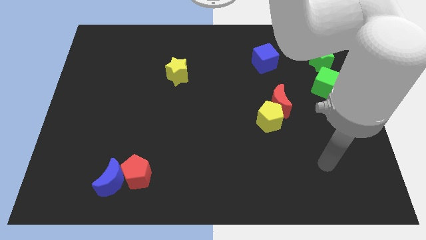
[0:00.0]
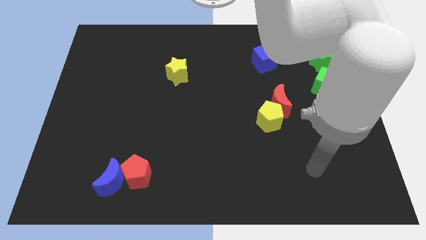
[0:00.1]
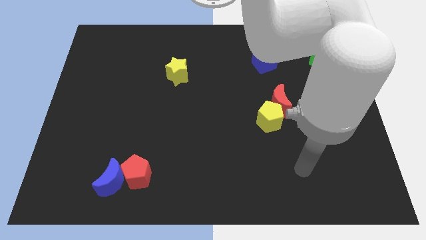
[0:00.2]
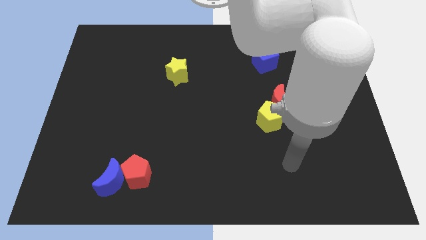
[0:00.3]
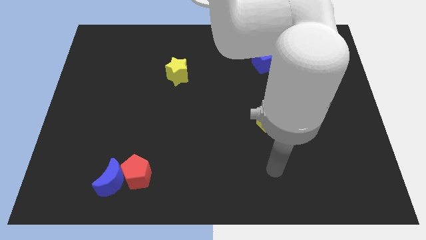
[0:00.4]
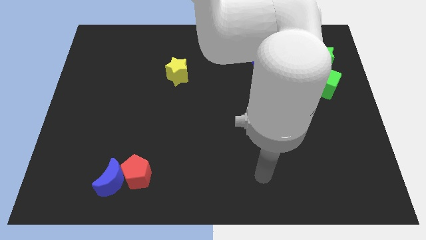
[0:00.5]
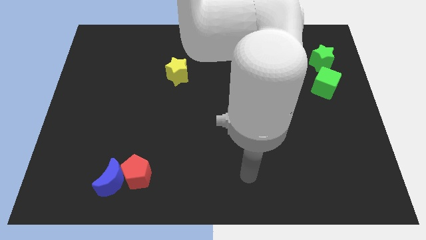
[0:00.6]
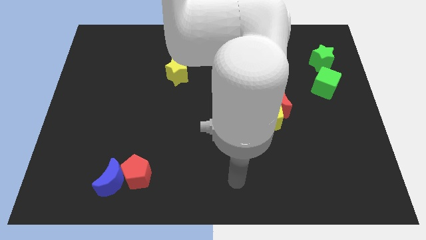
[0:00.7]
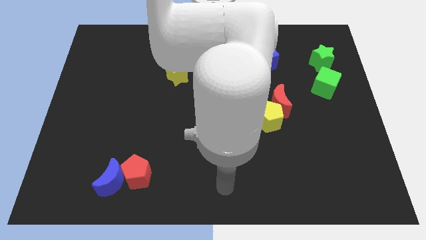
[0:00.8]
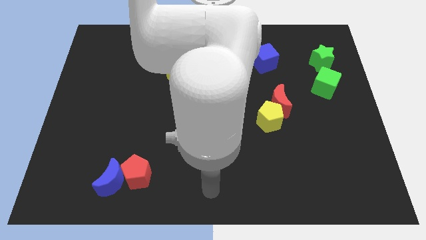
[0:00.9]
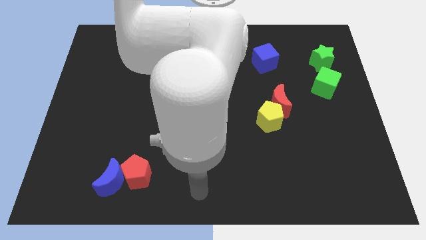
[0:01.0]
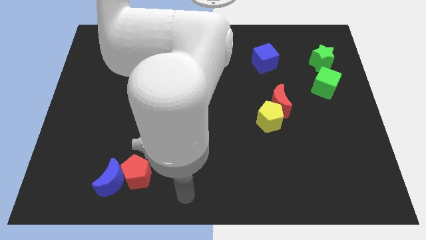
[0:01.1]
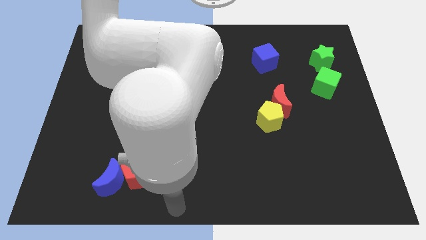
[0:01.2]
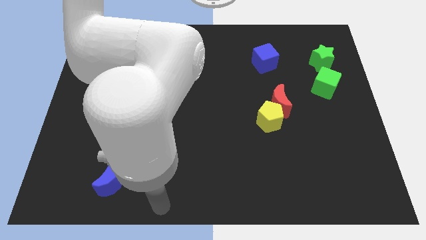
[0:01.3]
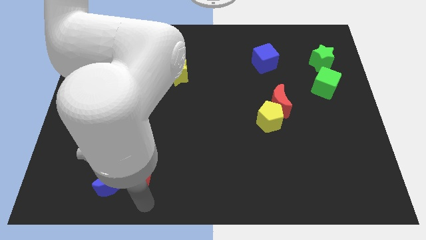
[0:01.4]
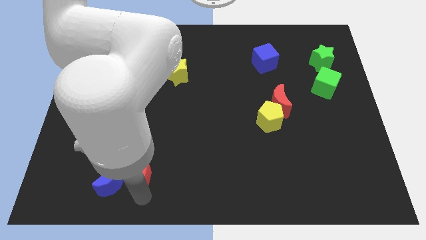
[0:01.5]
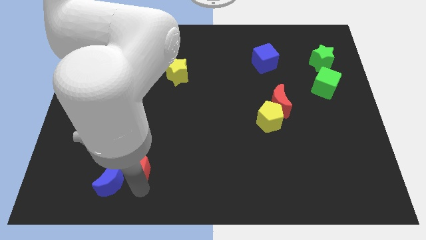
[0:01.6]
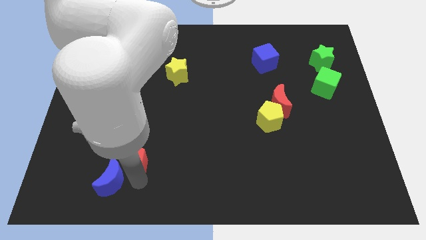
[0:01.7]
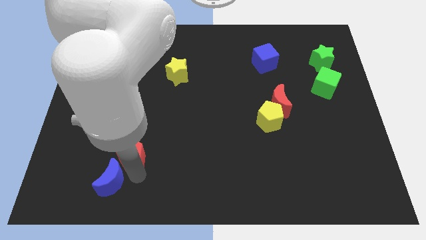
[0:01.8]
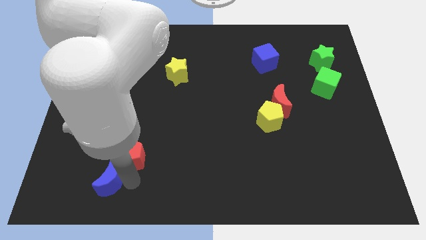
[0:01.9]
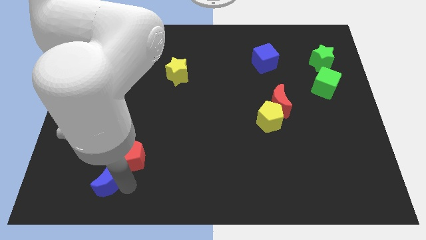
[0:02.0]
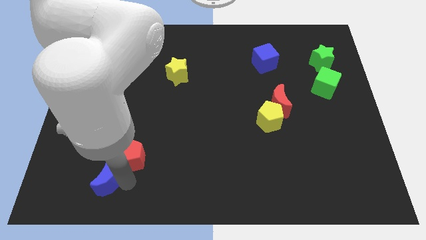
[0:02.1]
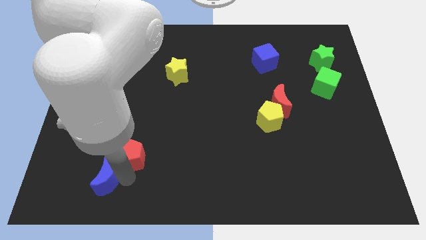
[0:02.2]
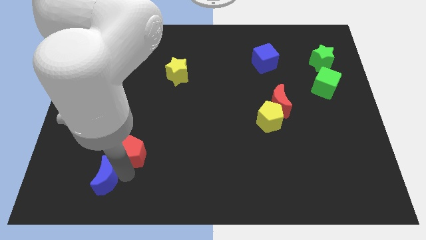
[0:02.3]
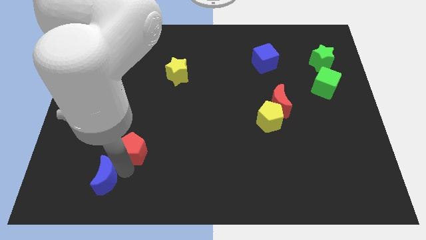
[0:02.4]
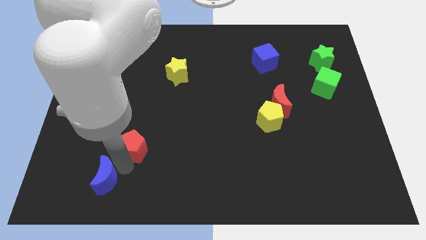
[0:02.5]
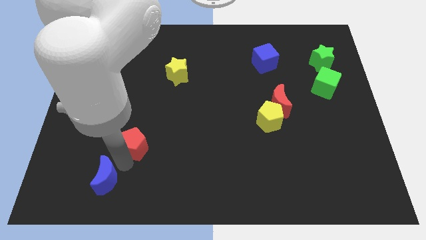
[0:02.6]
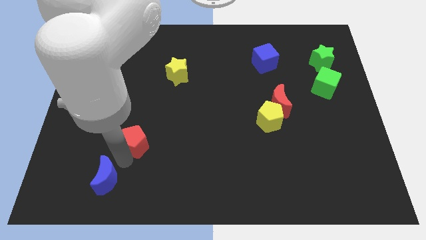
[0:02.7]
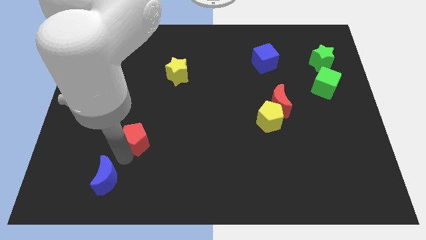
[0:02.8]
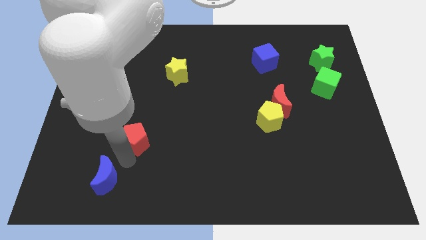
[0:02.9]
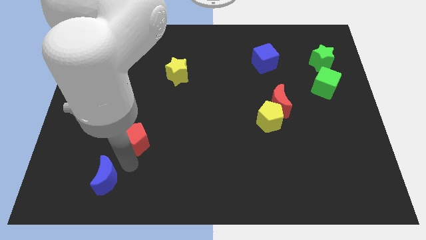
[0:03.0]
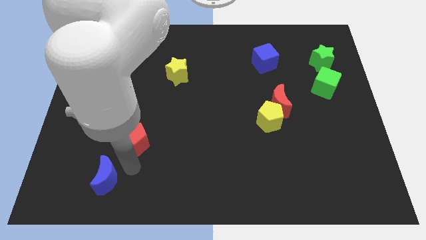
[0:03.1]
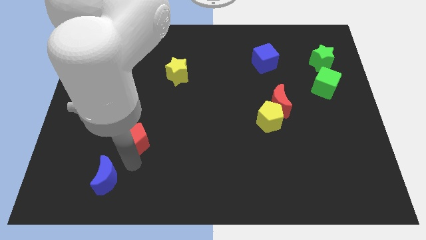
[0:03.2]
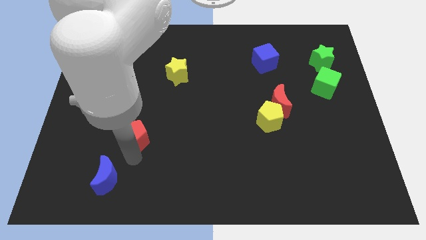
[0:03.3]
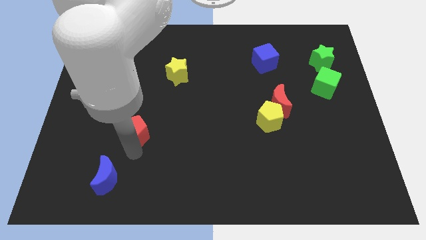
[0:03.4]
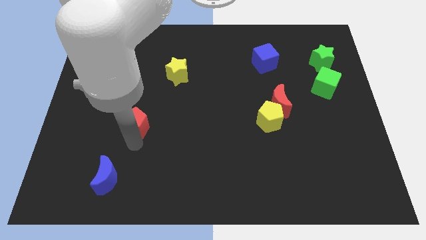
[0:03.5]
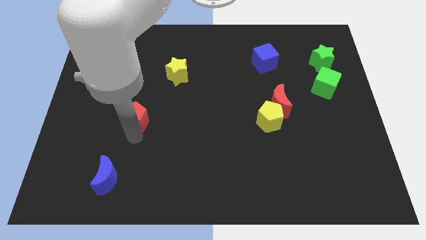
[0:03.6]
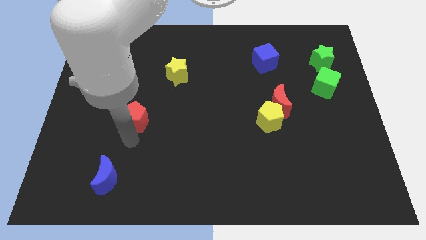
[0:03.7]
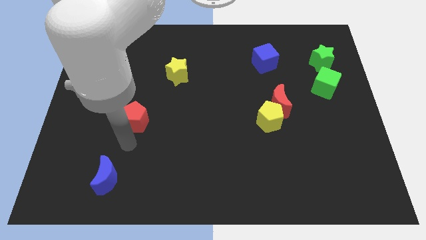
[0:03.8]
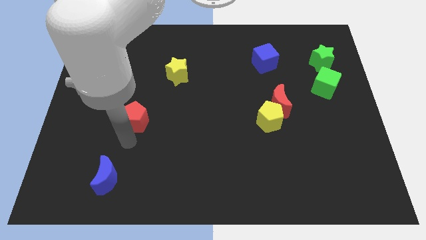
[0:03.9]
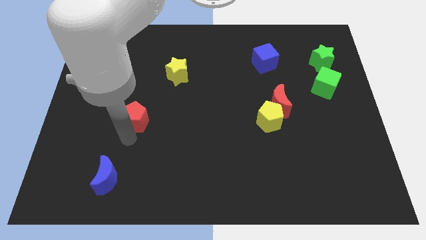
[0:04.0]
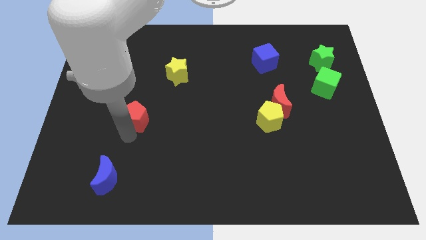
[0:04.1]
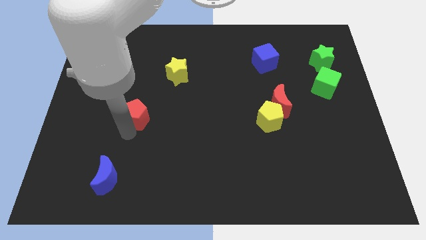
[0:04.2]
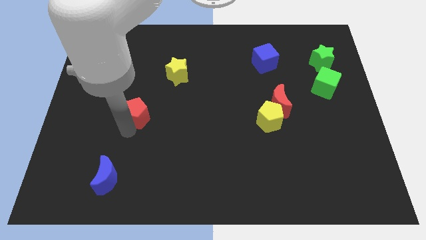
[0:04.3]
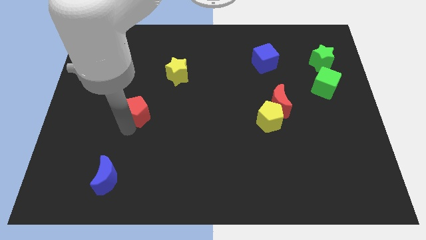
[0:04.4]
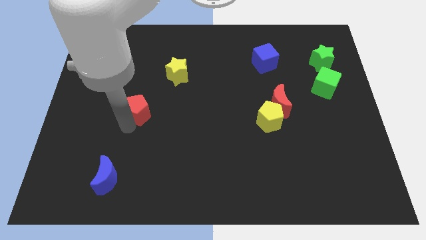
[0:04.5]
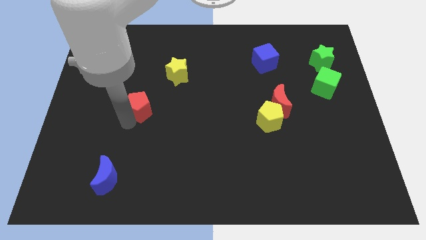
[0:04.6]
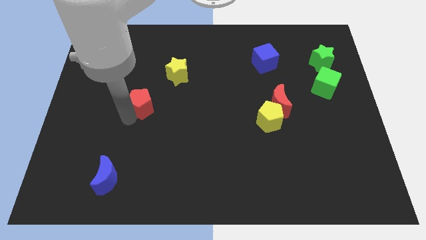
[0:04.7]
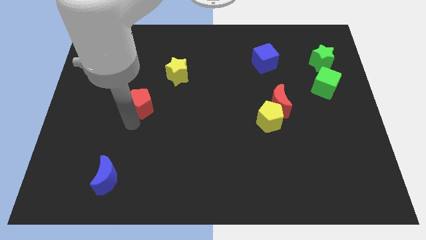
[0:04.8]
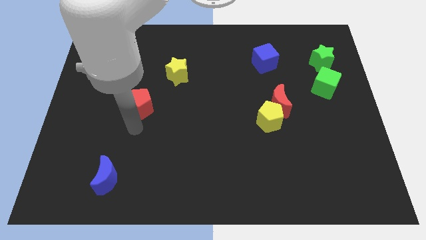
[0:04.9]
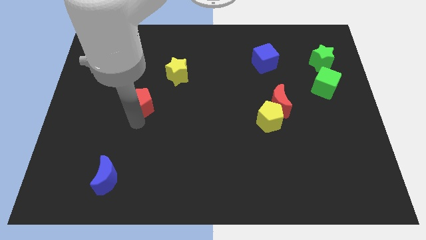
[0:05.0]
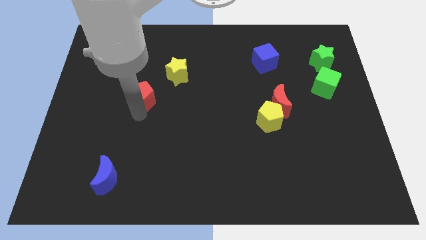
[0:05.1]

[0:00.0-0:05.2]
push the red pentagon upwards

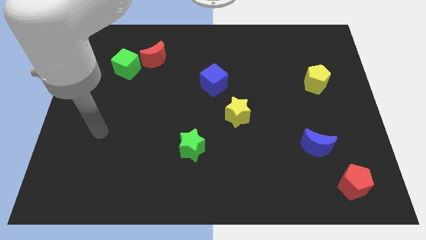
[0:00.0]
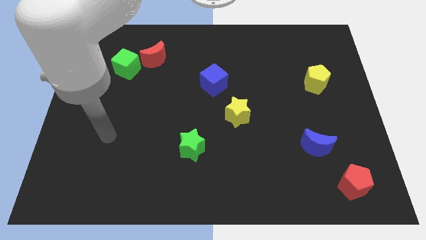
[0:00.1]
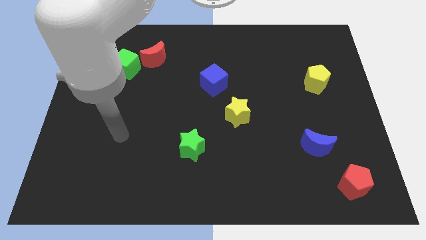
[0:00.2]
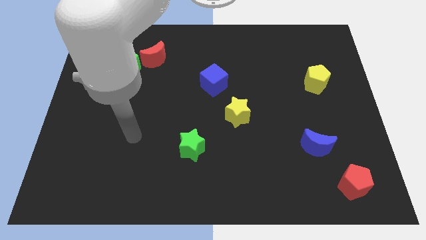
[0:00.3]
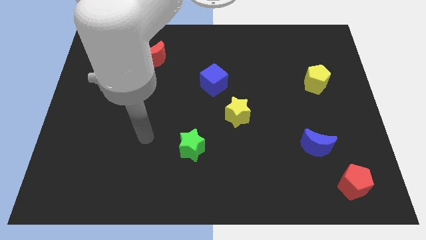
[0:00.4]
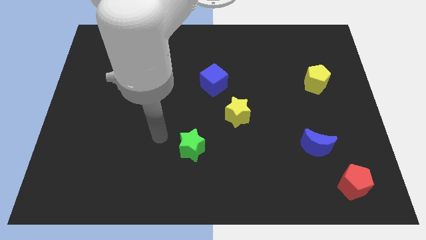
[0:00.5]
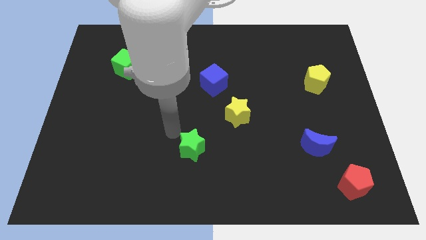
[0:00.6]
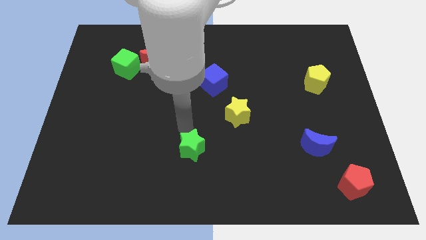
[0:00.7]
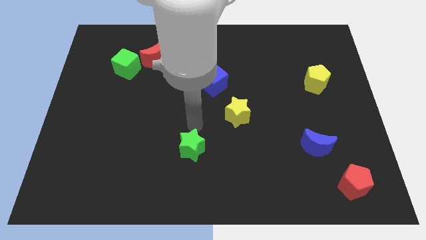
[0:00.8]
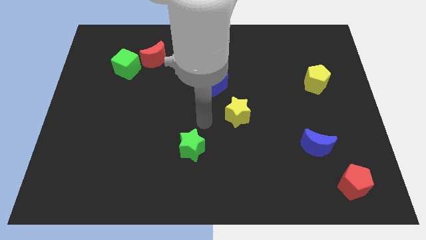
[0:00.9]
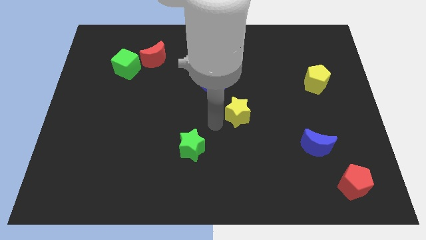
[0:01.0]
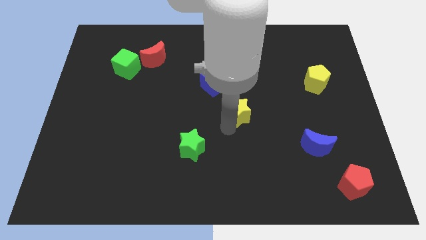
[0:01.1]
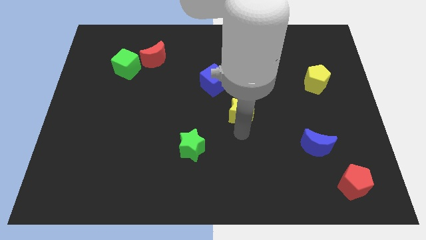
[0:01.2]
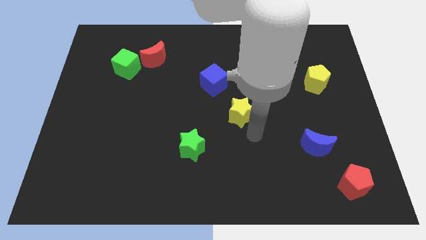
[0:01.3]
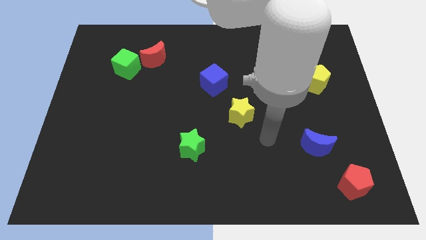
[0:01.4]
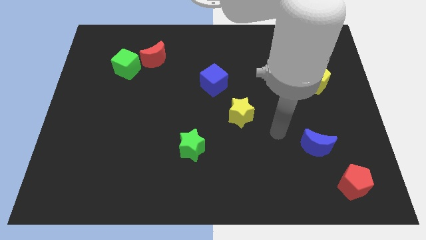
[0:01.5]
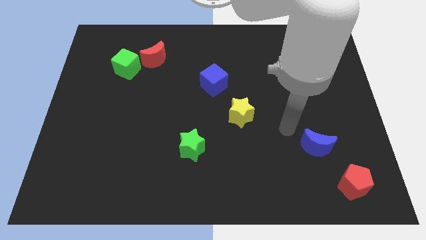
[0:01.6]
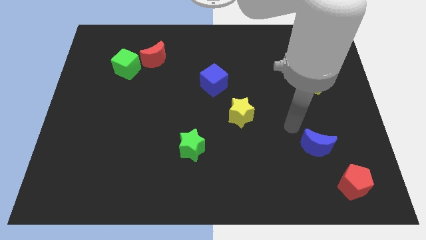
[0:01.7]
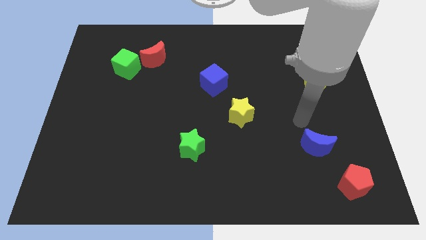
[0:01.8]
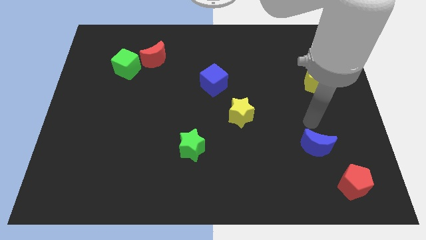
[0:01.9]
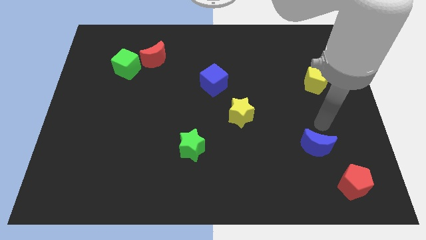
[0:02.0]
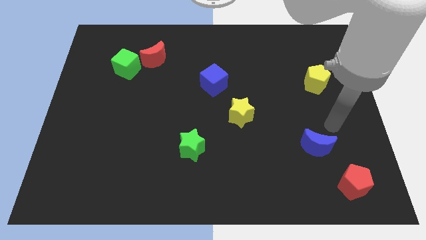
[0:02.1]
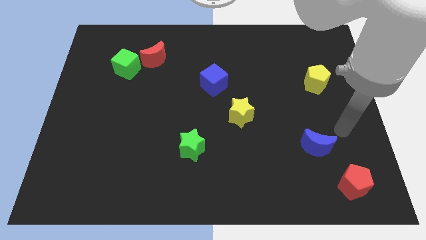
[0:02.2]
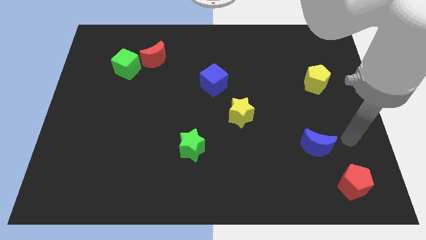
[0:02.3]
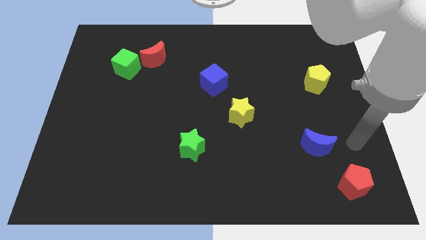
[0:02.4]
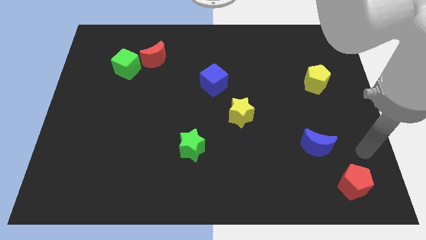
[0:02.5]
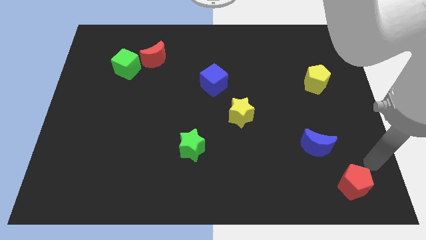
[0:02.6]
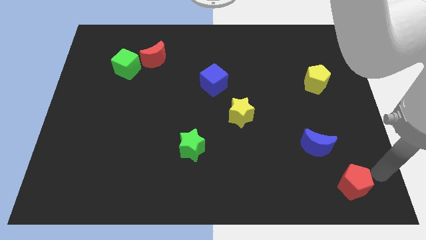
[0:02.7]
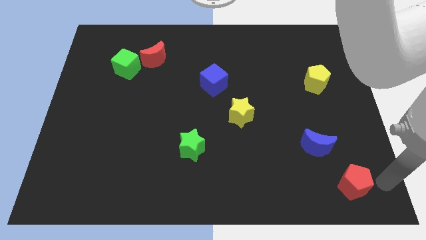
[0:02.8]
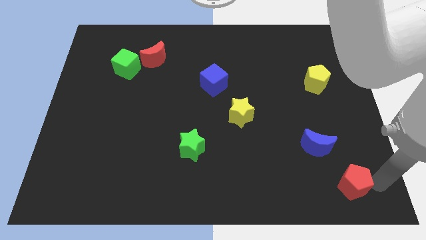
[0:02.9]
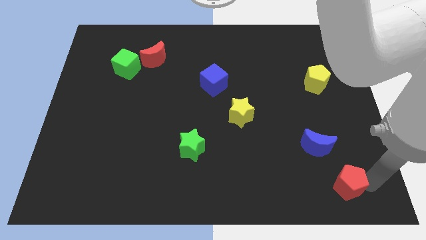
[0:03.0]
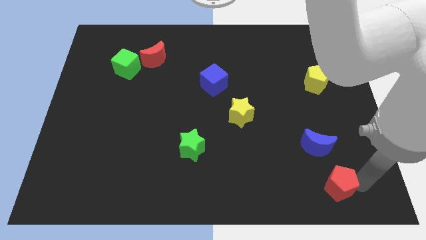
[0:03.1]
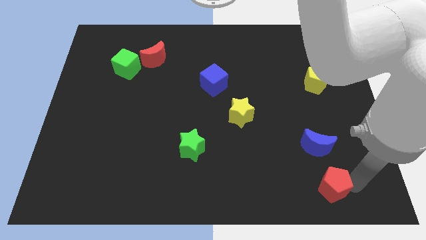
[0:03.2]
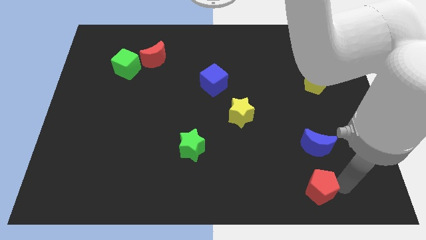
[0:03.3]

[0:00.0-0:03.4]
slide the red pentagon to the left a little bit
